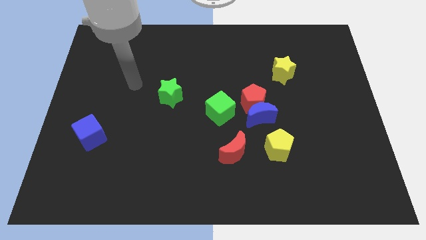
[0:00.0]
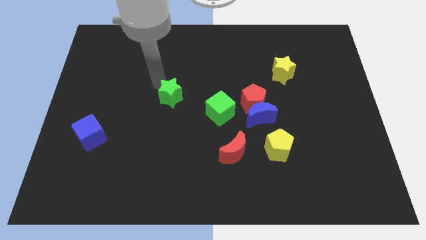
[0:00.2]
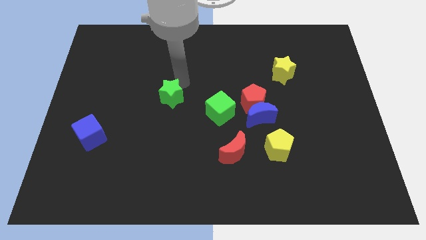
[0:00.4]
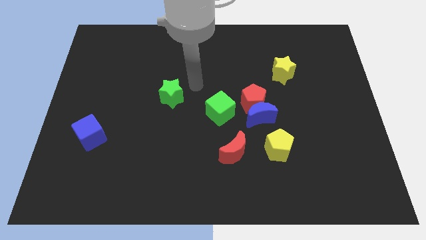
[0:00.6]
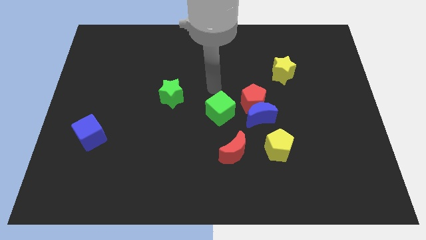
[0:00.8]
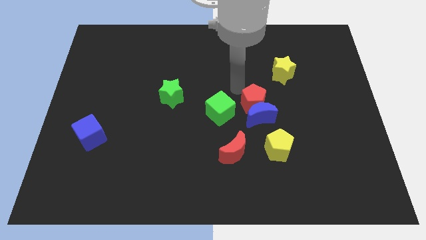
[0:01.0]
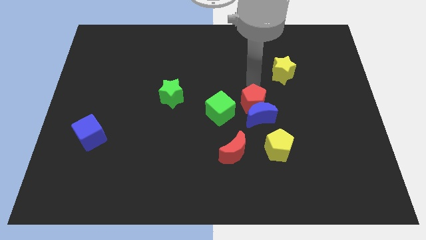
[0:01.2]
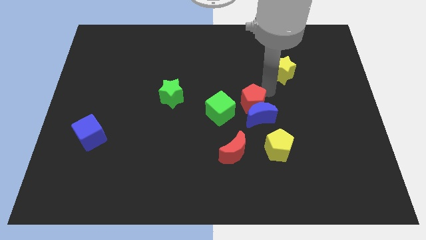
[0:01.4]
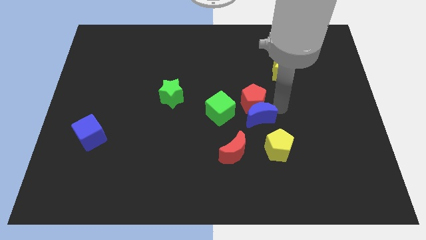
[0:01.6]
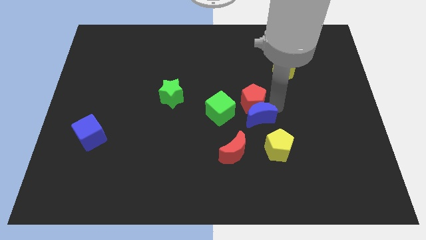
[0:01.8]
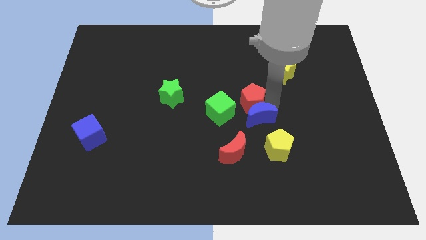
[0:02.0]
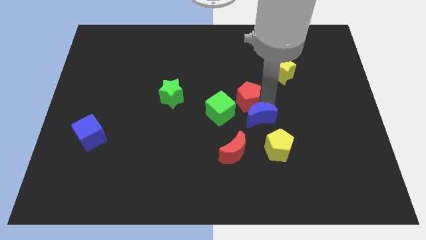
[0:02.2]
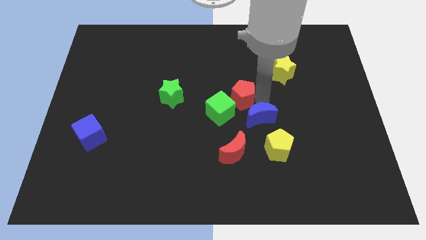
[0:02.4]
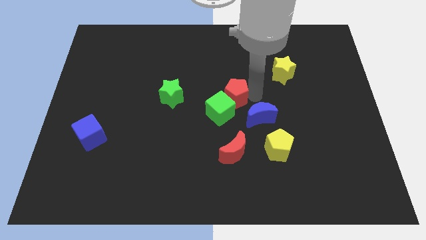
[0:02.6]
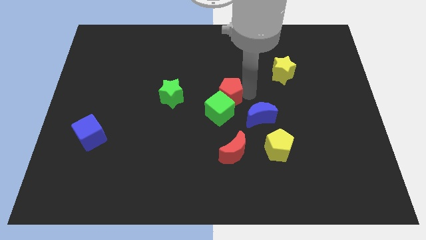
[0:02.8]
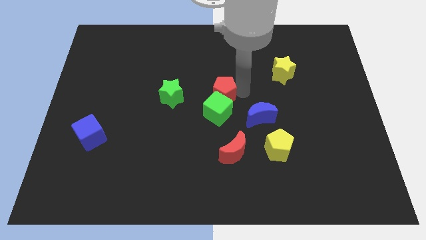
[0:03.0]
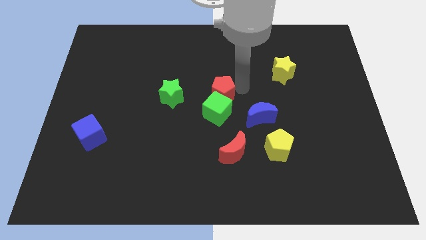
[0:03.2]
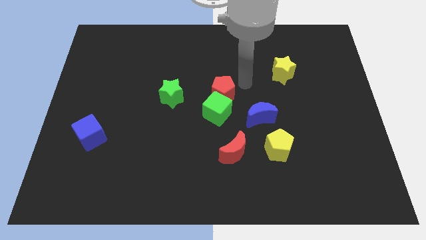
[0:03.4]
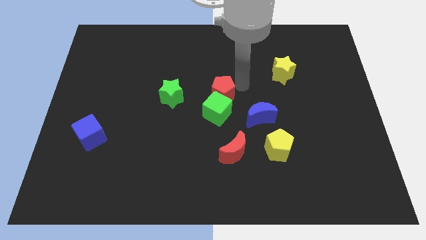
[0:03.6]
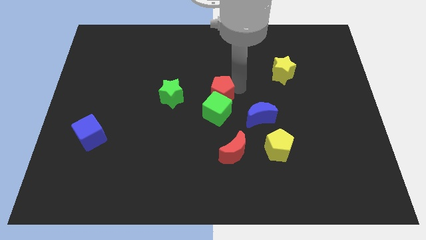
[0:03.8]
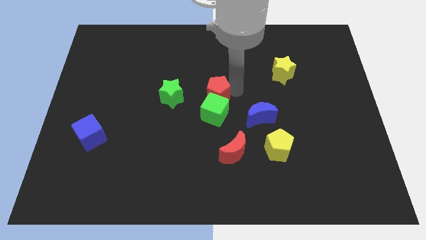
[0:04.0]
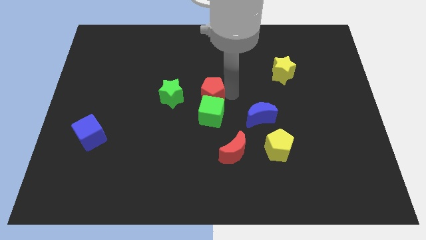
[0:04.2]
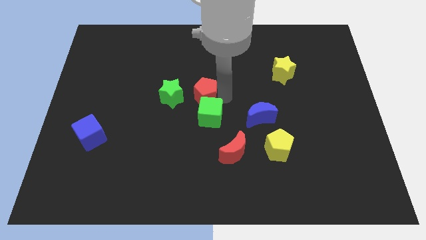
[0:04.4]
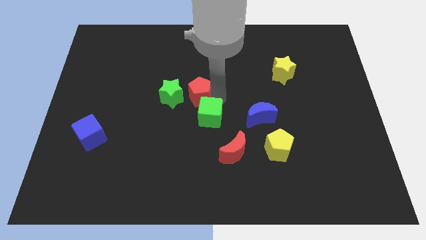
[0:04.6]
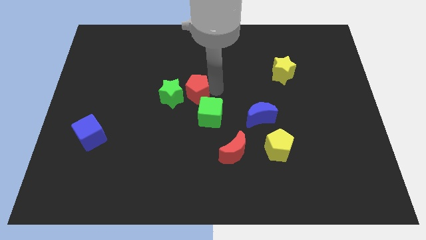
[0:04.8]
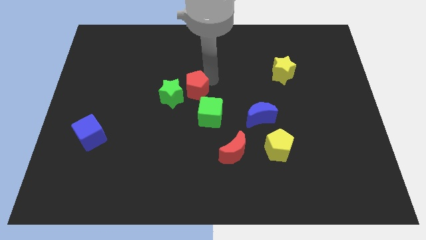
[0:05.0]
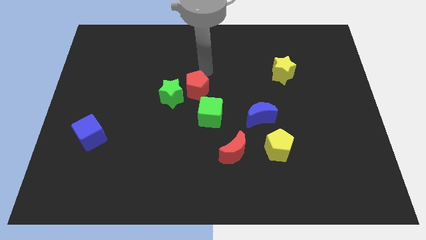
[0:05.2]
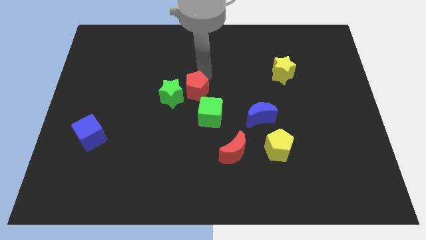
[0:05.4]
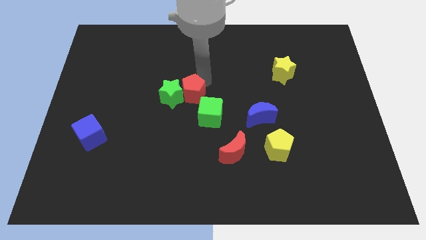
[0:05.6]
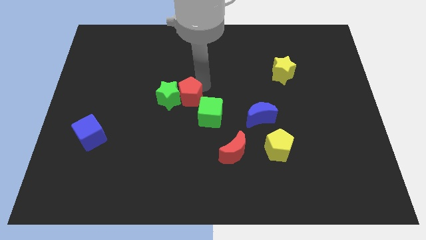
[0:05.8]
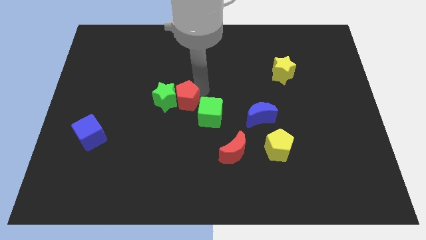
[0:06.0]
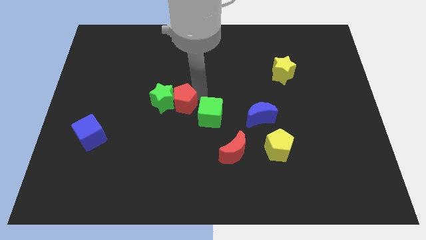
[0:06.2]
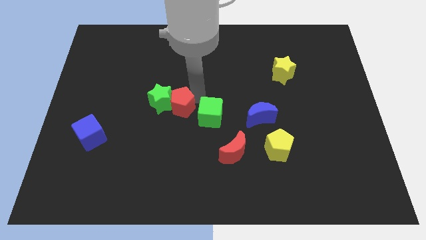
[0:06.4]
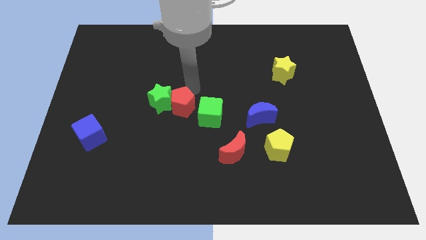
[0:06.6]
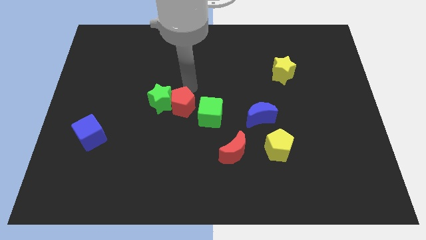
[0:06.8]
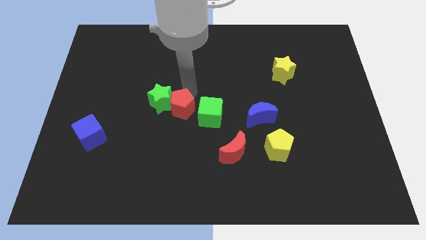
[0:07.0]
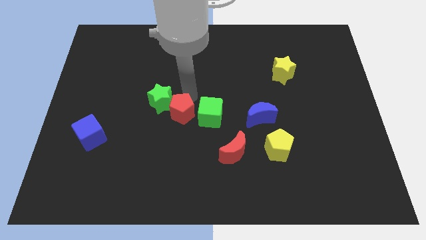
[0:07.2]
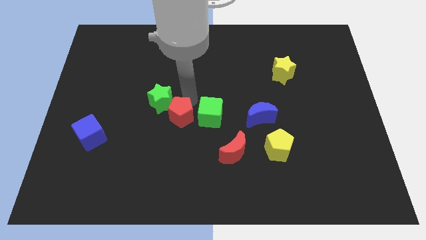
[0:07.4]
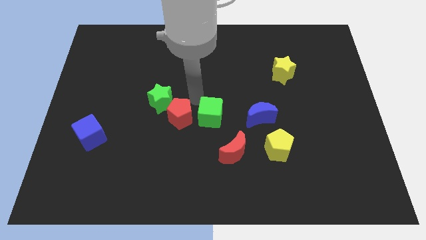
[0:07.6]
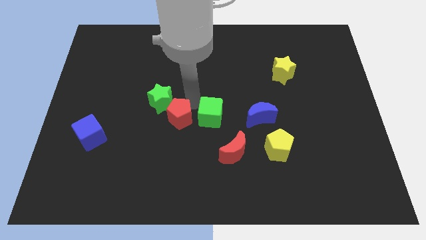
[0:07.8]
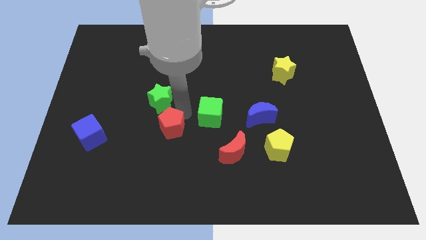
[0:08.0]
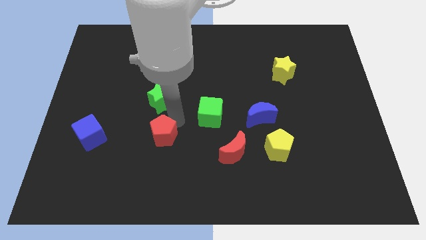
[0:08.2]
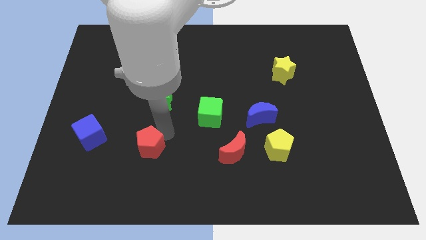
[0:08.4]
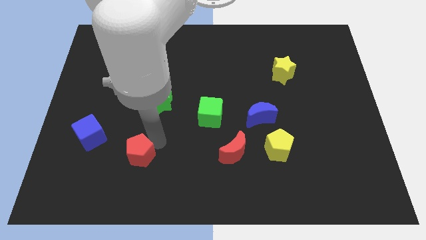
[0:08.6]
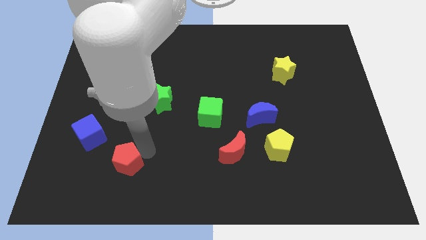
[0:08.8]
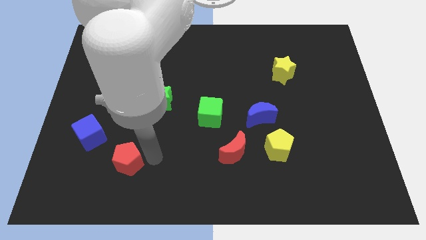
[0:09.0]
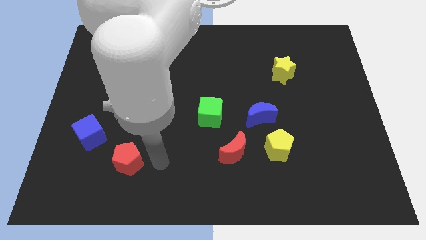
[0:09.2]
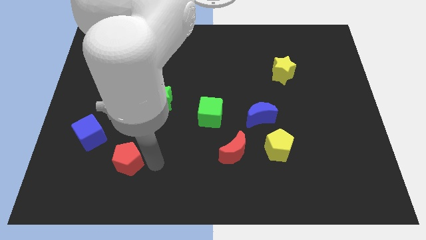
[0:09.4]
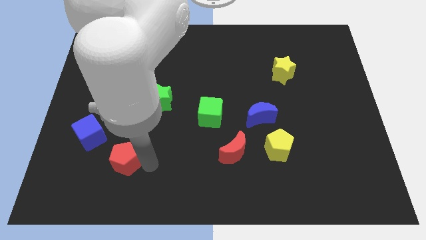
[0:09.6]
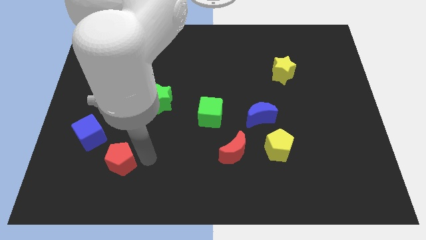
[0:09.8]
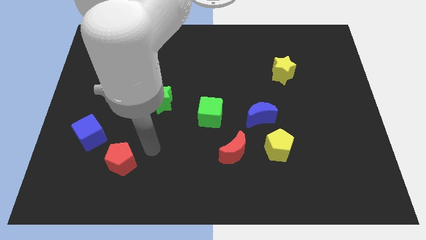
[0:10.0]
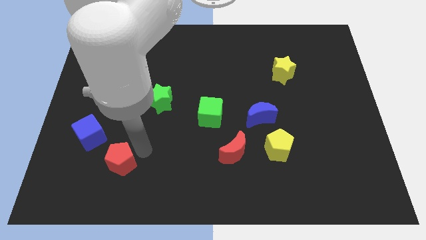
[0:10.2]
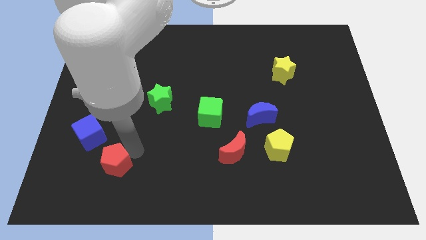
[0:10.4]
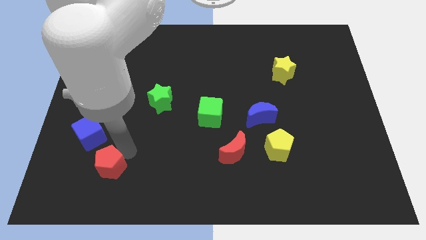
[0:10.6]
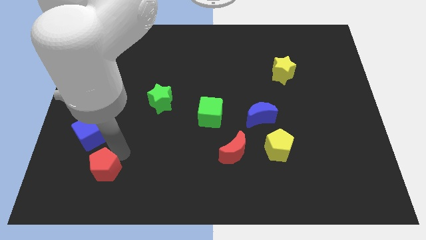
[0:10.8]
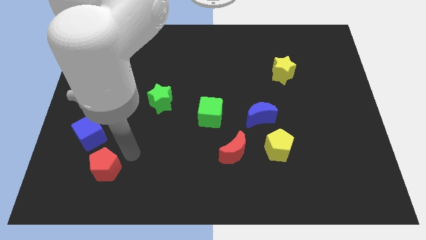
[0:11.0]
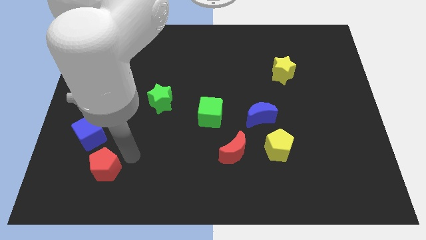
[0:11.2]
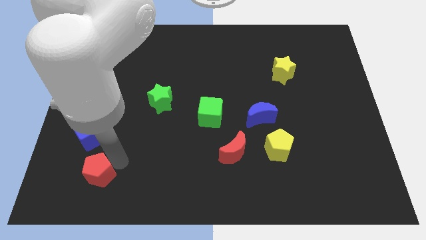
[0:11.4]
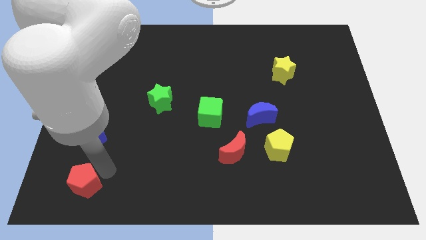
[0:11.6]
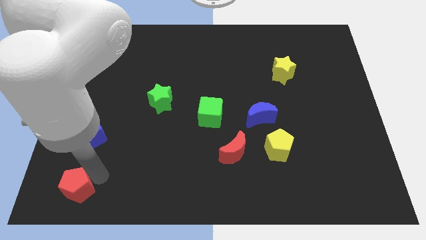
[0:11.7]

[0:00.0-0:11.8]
slide the red pentagon to the bottom left of the board
